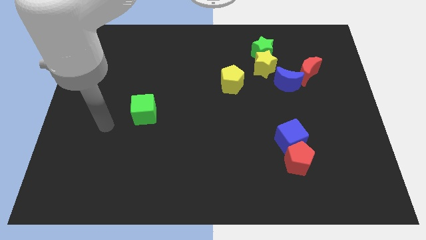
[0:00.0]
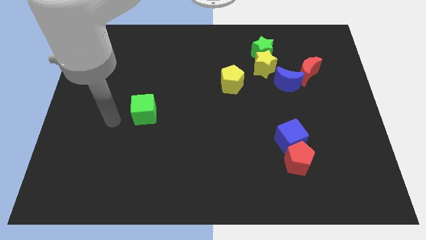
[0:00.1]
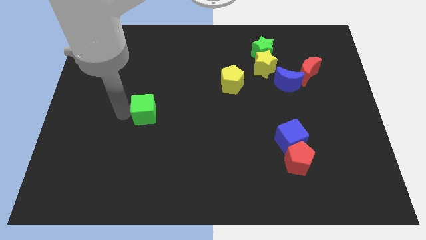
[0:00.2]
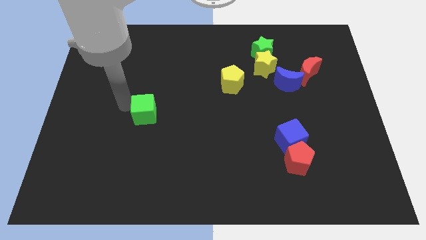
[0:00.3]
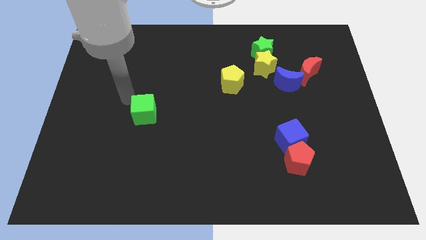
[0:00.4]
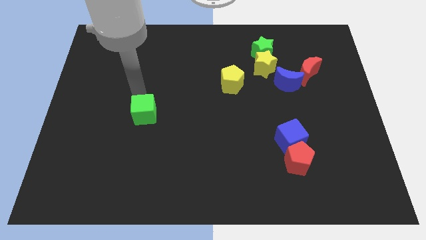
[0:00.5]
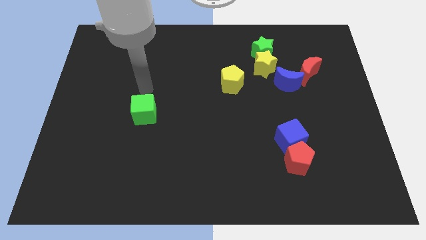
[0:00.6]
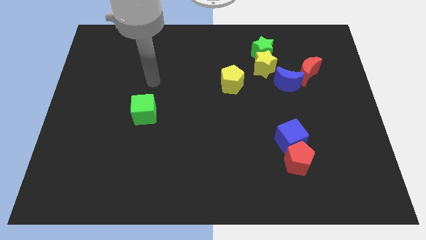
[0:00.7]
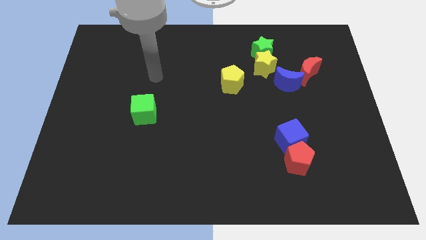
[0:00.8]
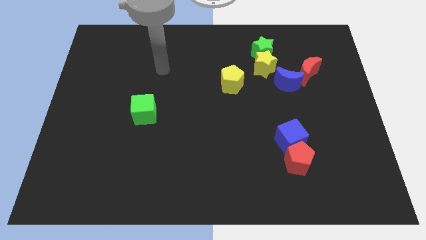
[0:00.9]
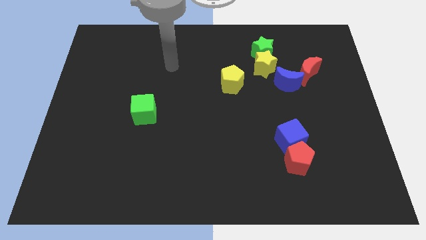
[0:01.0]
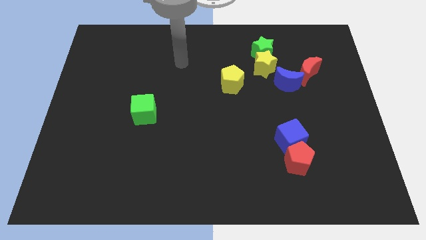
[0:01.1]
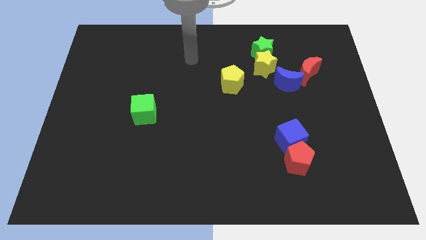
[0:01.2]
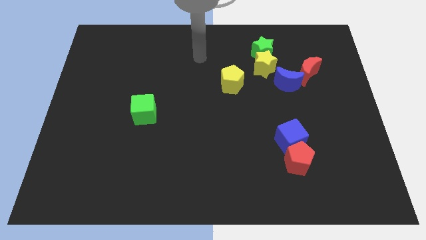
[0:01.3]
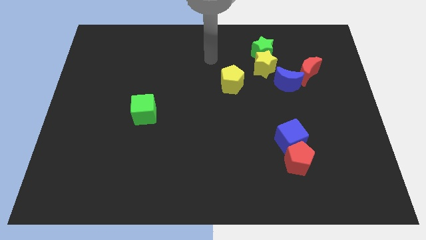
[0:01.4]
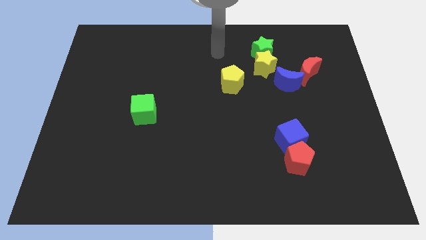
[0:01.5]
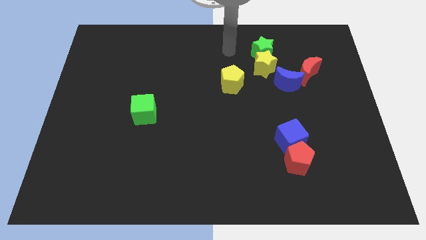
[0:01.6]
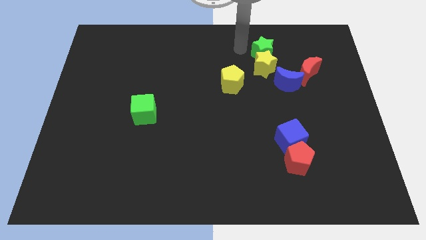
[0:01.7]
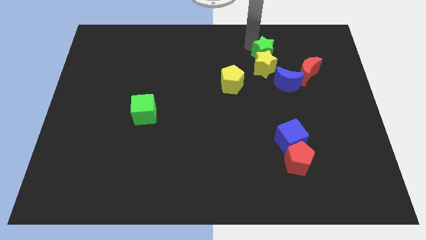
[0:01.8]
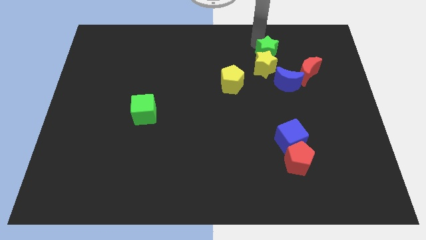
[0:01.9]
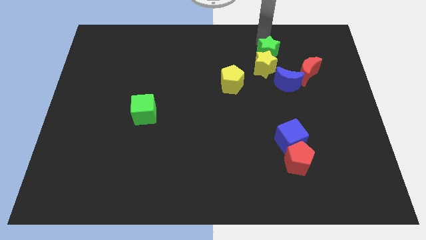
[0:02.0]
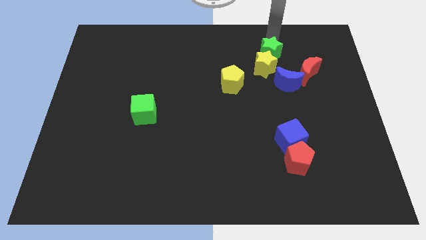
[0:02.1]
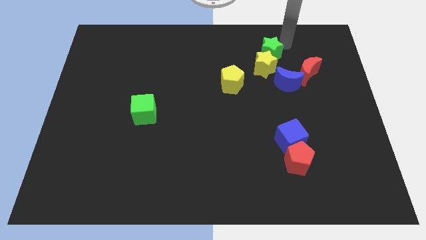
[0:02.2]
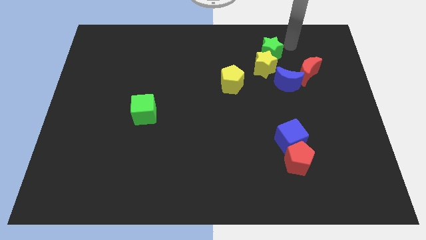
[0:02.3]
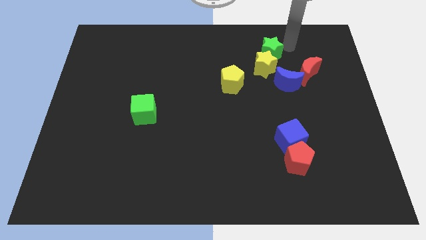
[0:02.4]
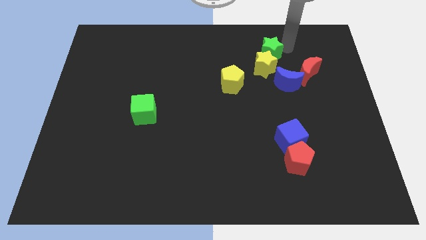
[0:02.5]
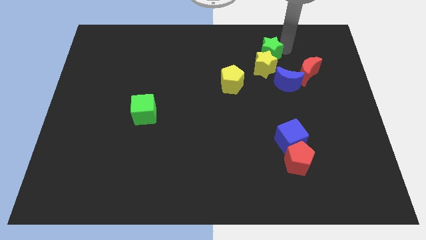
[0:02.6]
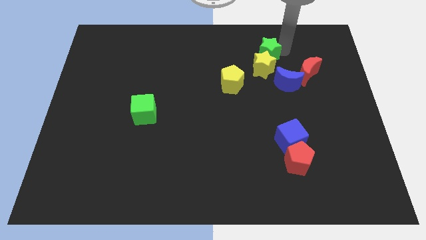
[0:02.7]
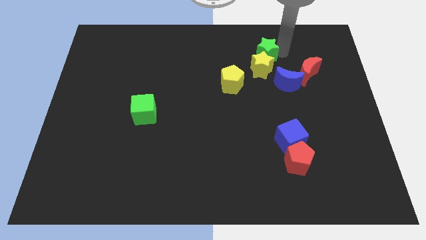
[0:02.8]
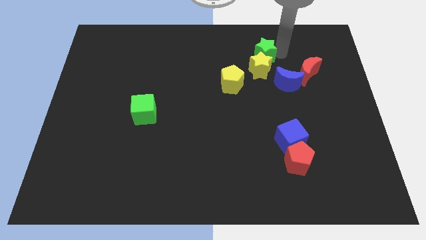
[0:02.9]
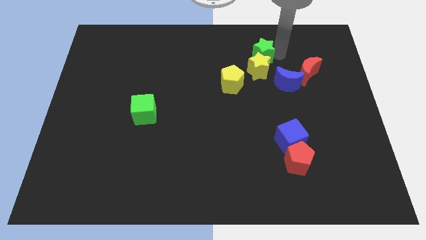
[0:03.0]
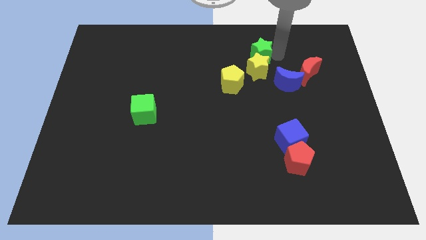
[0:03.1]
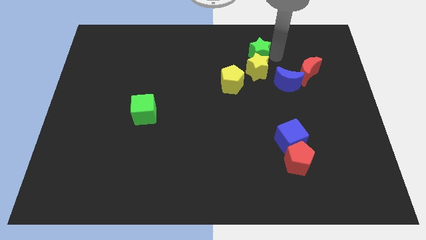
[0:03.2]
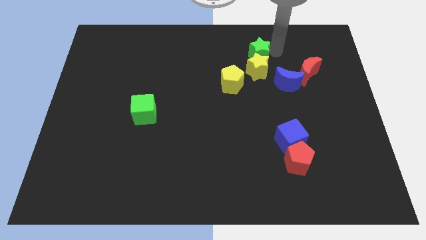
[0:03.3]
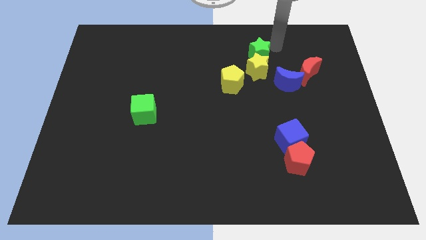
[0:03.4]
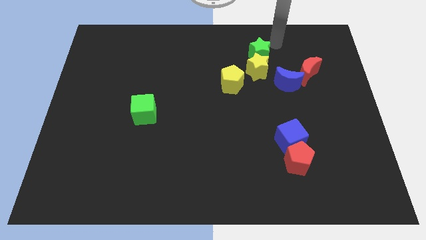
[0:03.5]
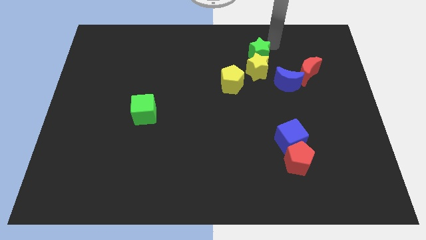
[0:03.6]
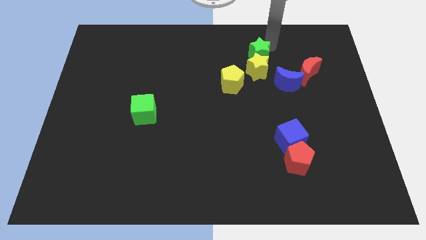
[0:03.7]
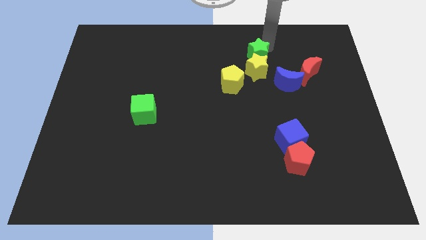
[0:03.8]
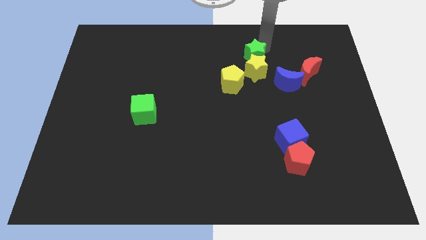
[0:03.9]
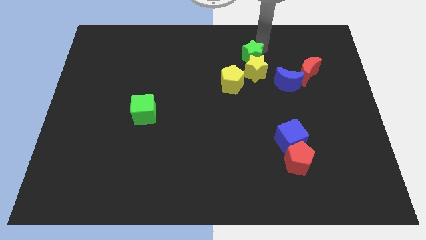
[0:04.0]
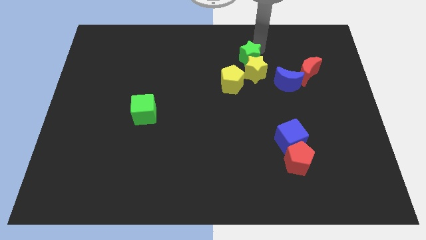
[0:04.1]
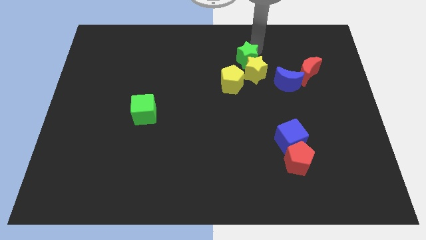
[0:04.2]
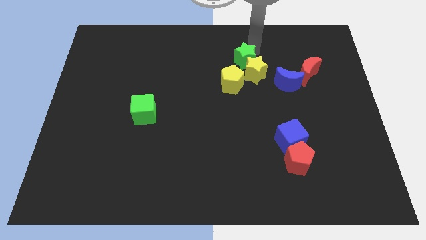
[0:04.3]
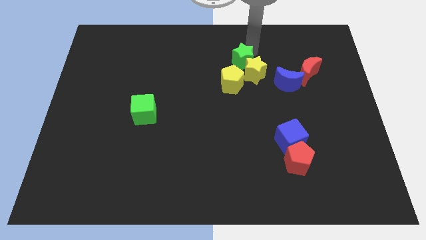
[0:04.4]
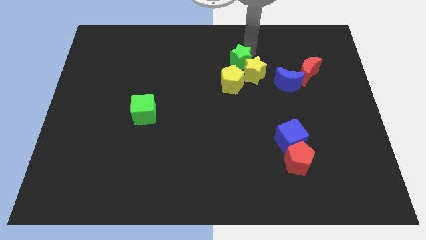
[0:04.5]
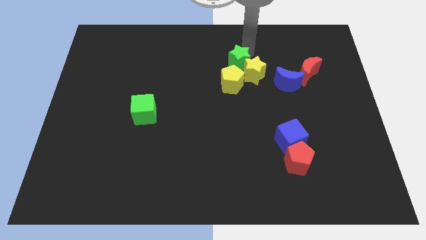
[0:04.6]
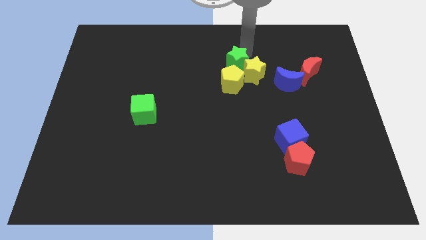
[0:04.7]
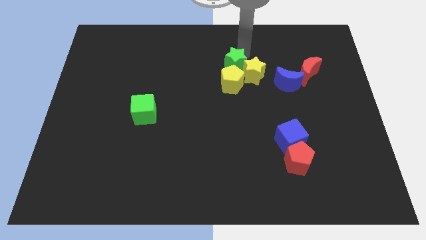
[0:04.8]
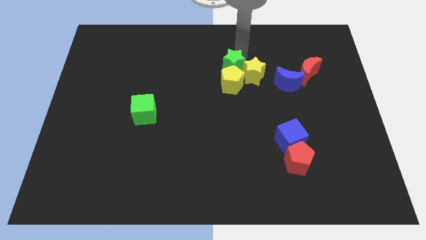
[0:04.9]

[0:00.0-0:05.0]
put the green star next to the yellow pentagon

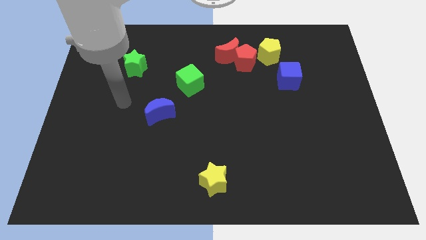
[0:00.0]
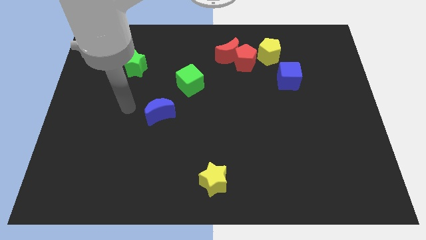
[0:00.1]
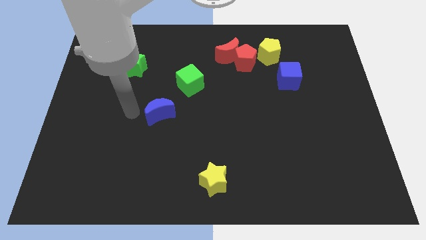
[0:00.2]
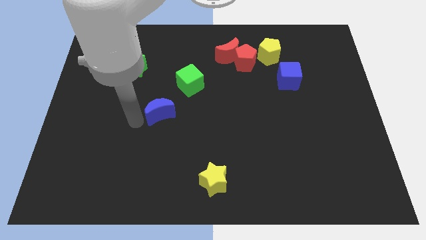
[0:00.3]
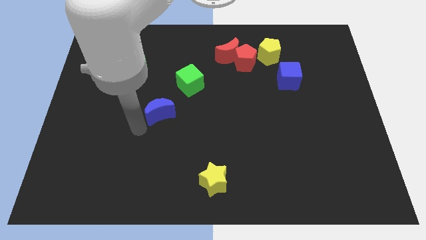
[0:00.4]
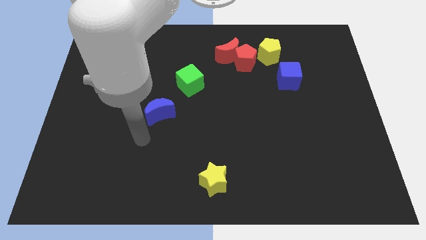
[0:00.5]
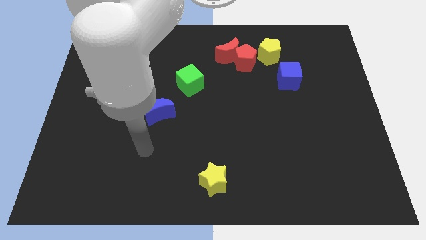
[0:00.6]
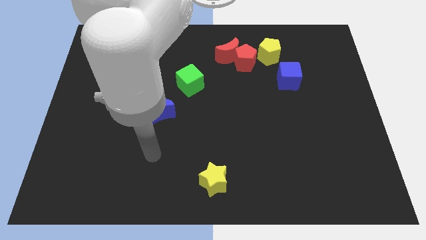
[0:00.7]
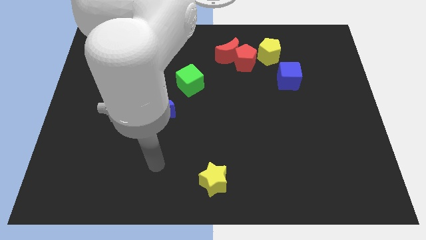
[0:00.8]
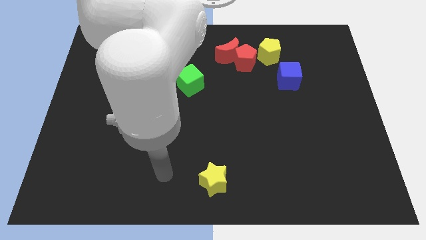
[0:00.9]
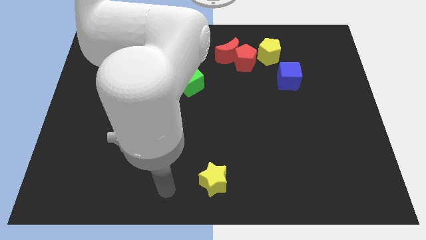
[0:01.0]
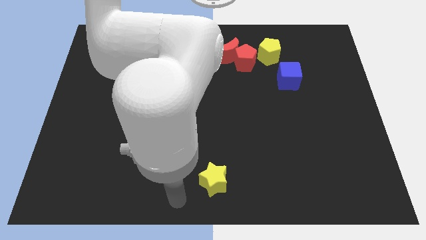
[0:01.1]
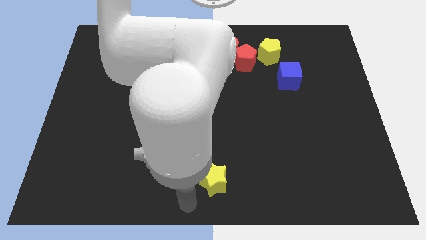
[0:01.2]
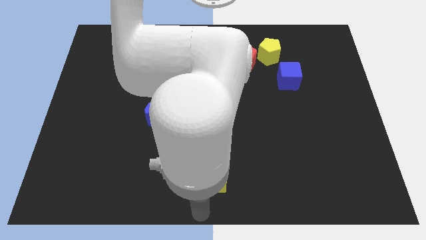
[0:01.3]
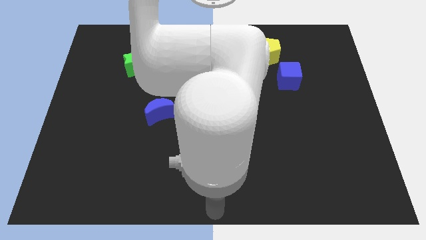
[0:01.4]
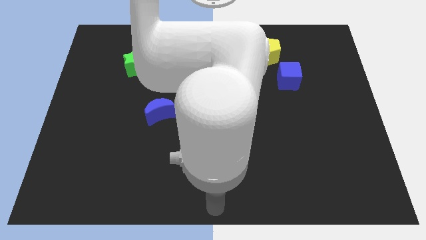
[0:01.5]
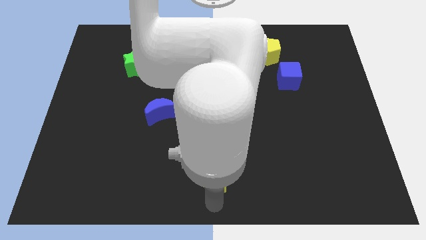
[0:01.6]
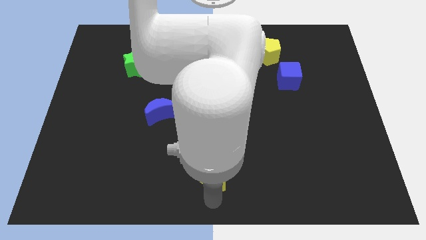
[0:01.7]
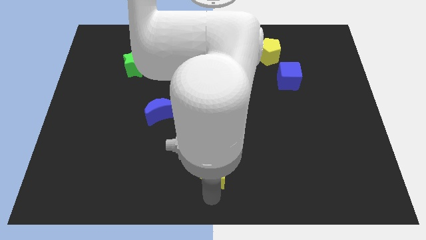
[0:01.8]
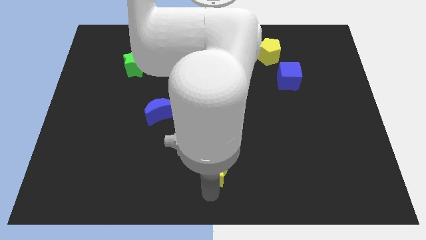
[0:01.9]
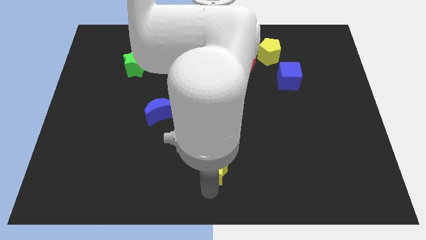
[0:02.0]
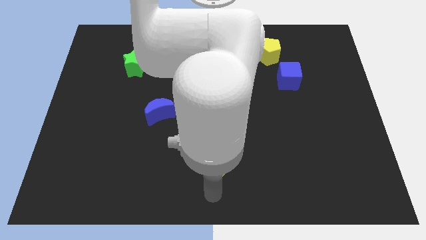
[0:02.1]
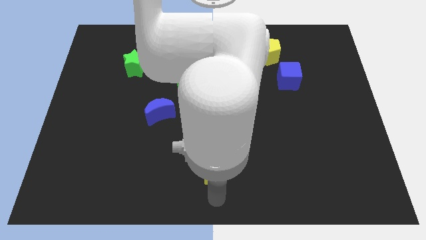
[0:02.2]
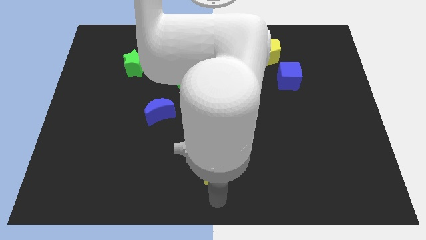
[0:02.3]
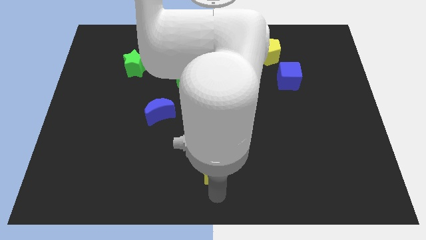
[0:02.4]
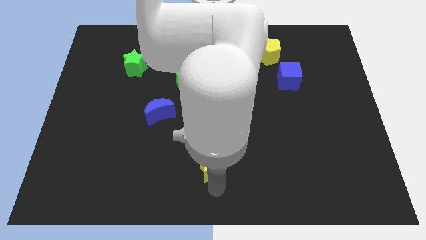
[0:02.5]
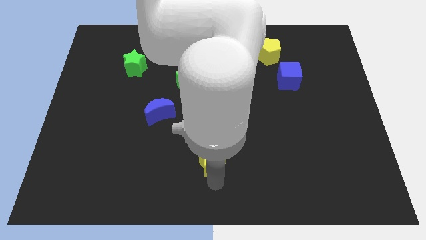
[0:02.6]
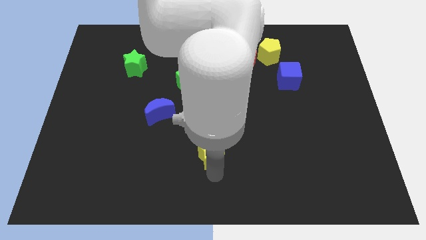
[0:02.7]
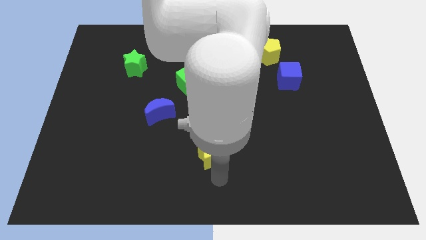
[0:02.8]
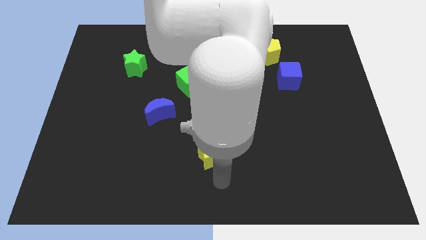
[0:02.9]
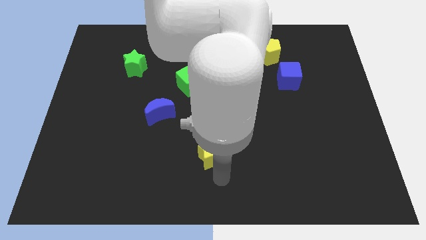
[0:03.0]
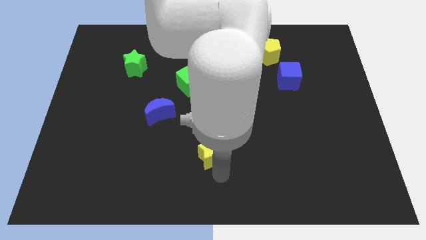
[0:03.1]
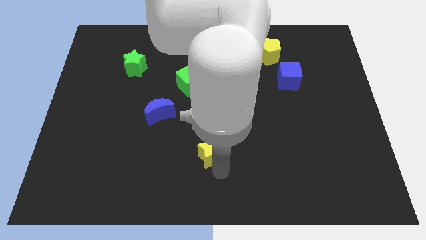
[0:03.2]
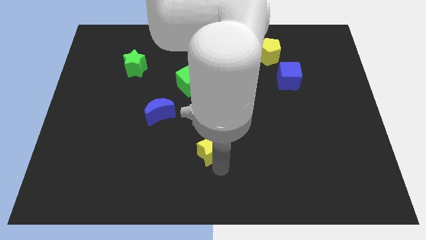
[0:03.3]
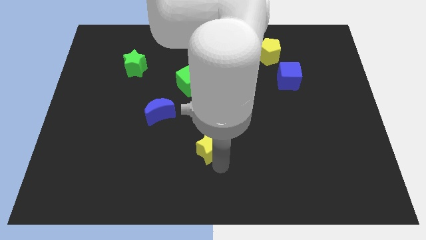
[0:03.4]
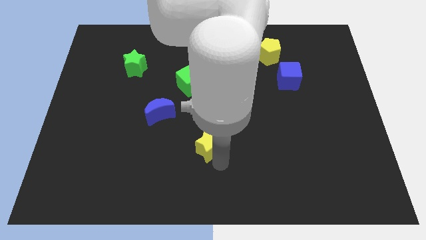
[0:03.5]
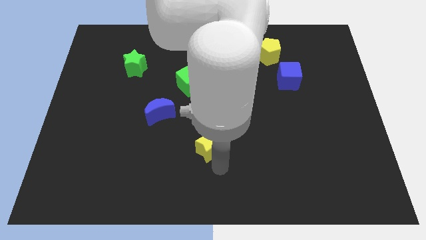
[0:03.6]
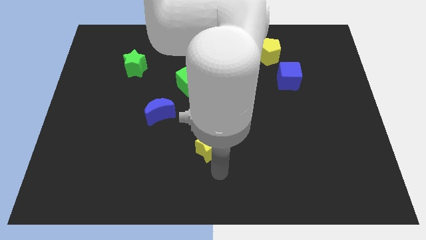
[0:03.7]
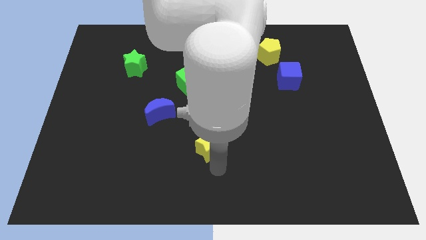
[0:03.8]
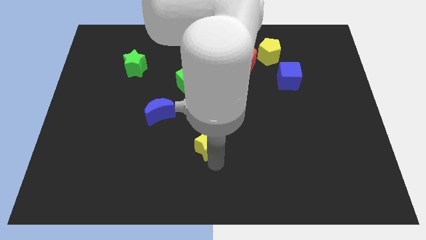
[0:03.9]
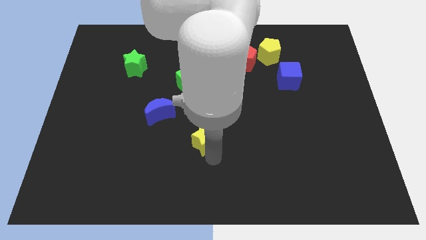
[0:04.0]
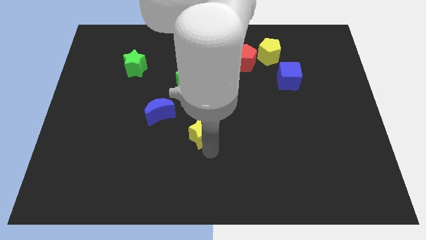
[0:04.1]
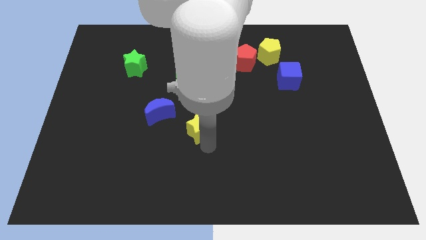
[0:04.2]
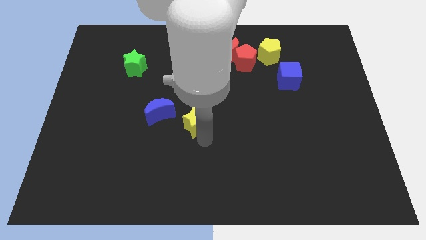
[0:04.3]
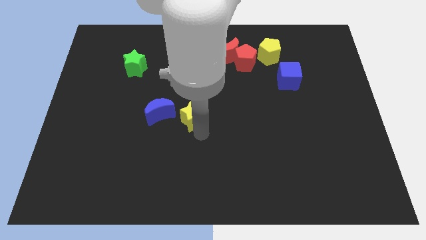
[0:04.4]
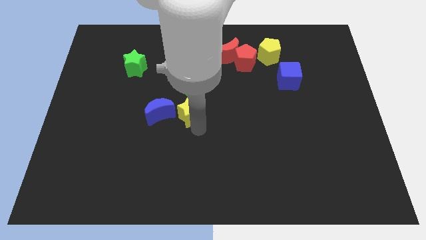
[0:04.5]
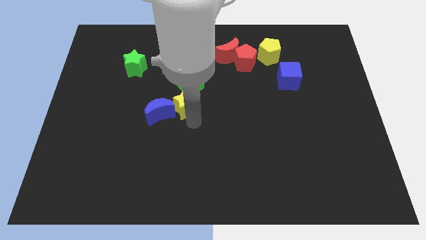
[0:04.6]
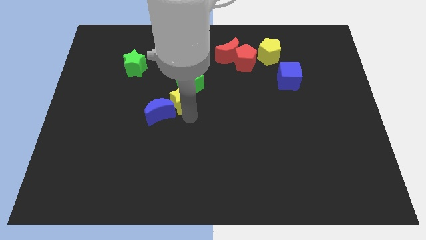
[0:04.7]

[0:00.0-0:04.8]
move the yellow star to the green cube
